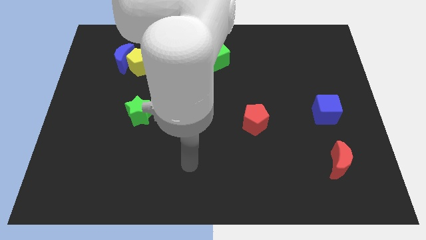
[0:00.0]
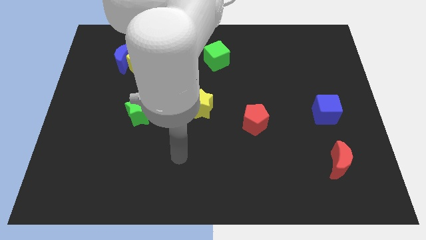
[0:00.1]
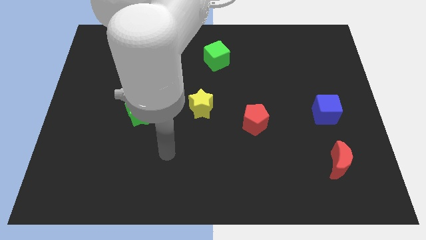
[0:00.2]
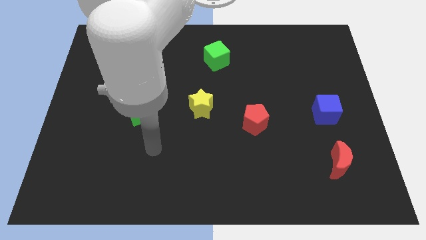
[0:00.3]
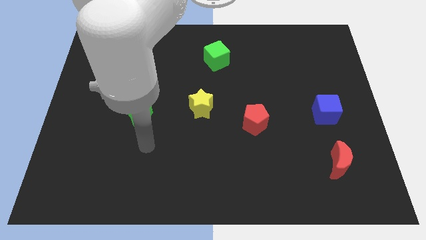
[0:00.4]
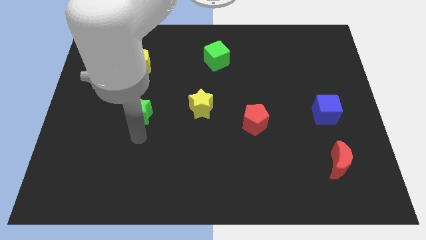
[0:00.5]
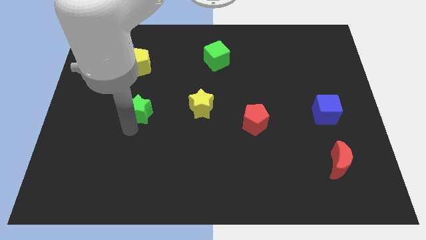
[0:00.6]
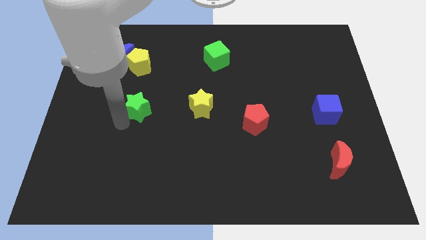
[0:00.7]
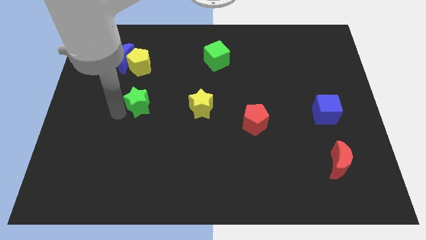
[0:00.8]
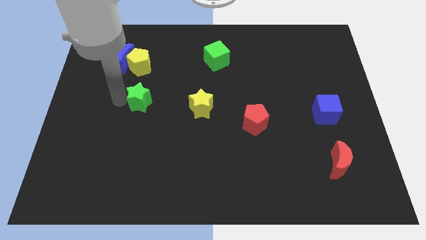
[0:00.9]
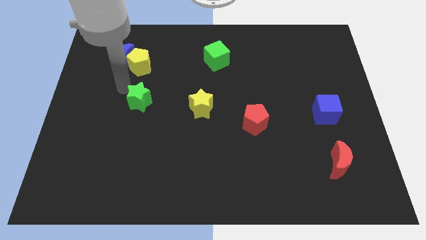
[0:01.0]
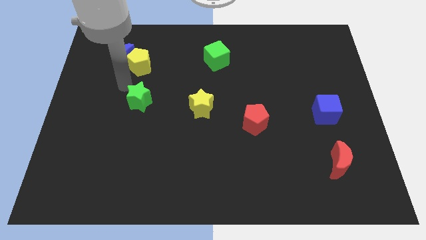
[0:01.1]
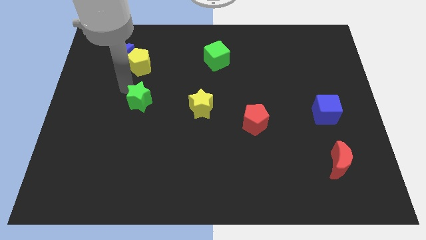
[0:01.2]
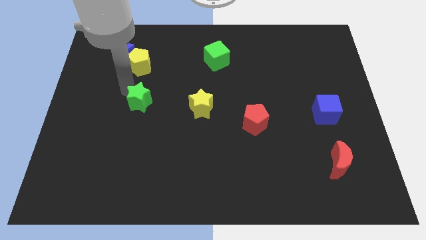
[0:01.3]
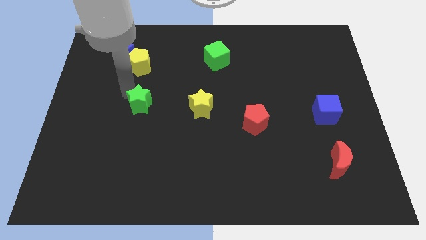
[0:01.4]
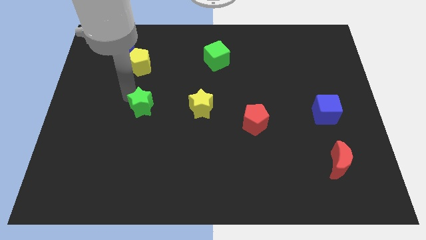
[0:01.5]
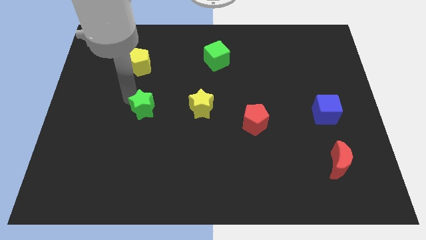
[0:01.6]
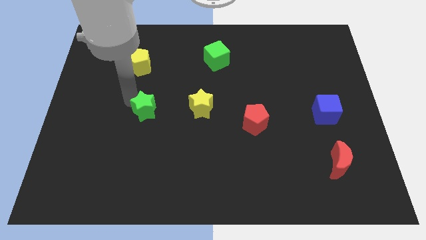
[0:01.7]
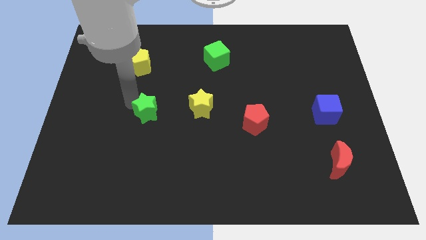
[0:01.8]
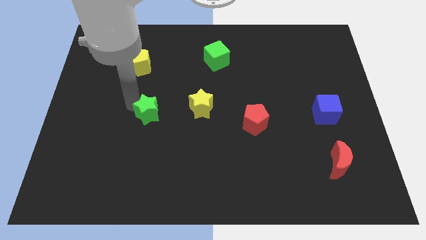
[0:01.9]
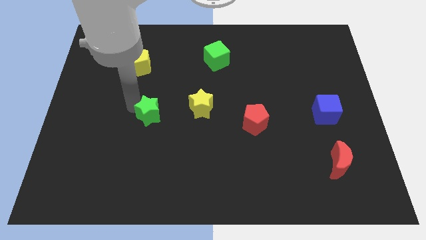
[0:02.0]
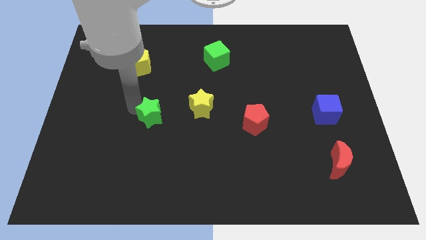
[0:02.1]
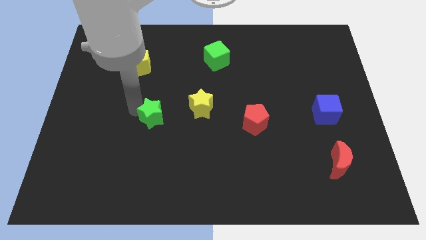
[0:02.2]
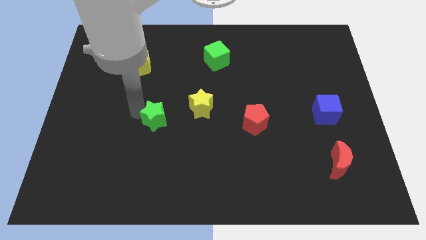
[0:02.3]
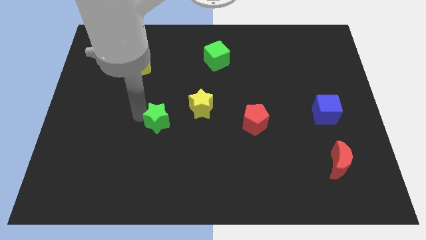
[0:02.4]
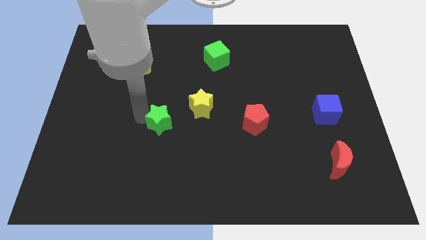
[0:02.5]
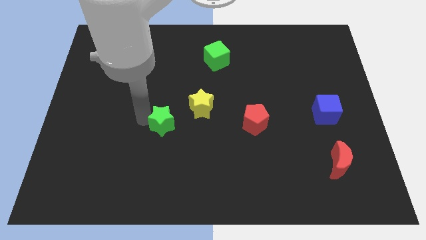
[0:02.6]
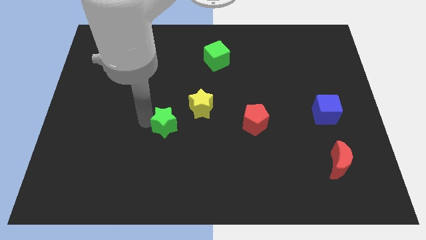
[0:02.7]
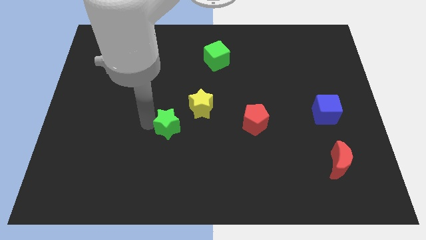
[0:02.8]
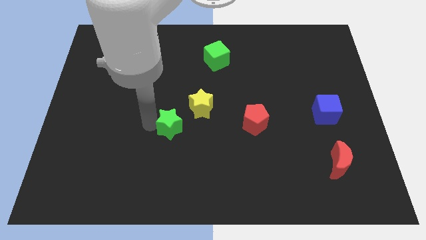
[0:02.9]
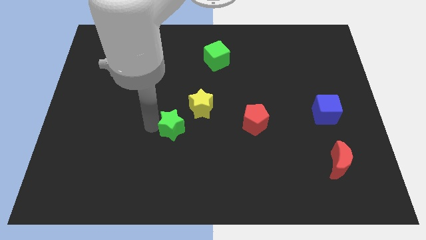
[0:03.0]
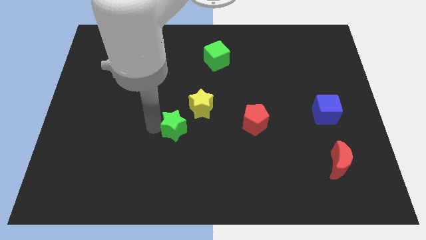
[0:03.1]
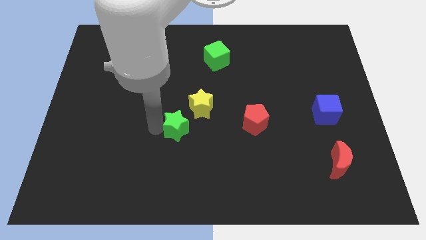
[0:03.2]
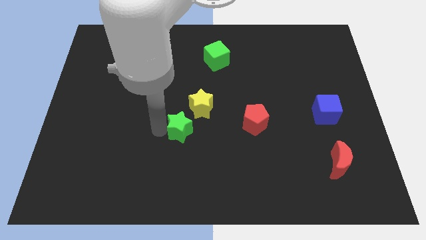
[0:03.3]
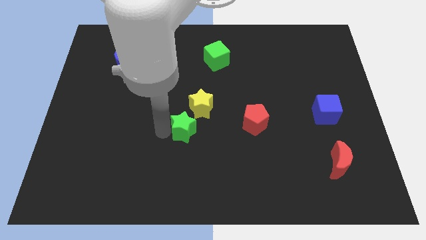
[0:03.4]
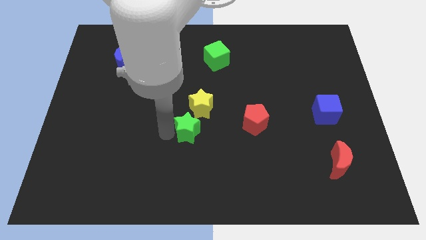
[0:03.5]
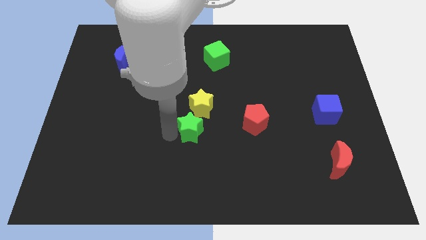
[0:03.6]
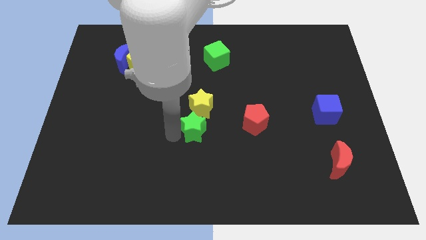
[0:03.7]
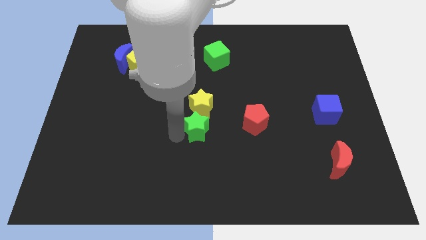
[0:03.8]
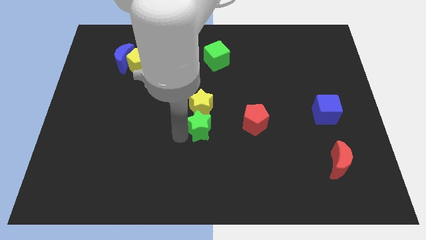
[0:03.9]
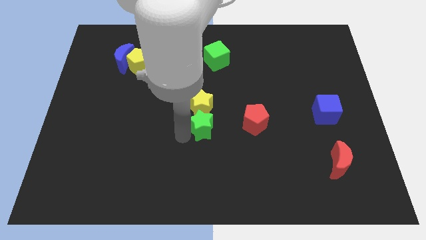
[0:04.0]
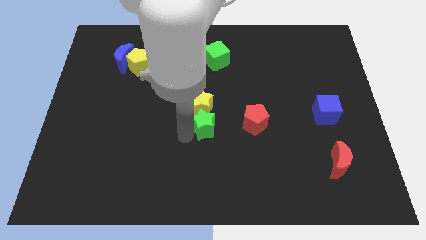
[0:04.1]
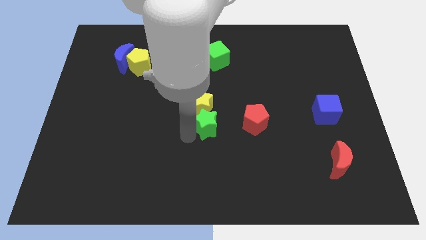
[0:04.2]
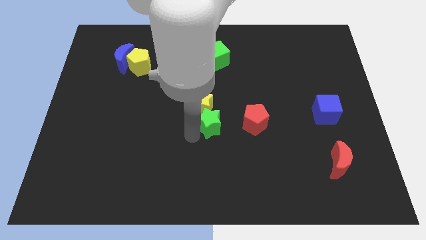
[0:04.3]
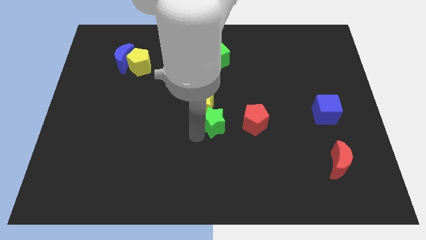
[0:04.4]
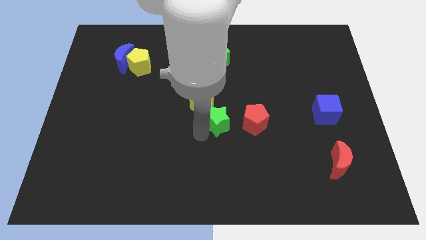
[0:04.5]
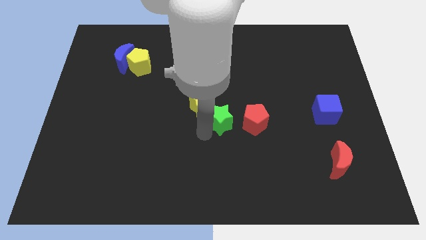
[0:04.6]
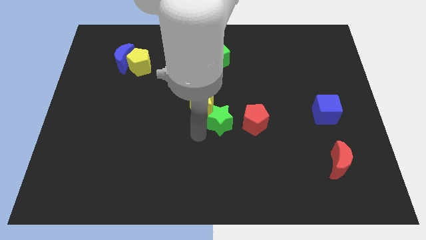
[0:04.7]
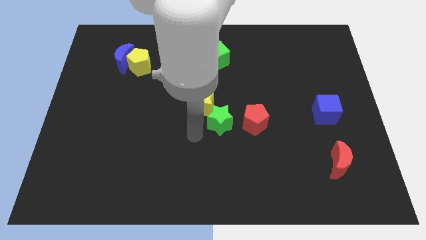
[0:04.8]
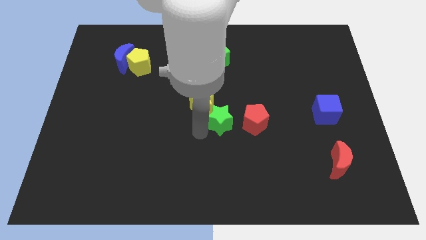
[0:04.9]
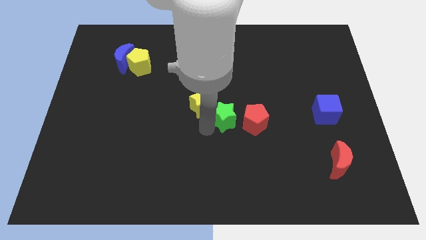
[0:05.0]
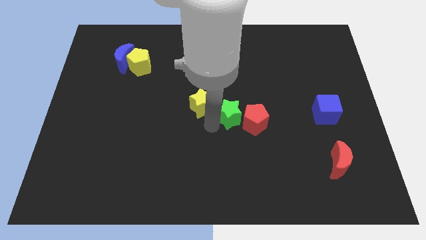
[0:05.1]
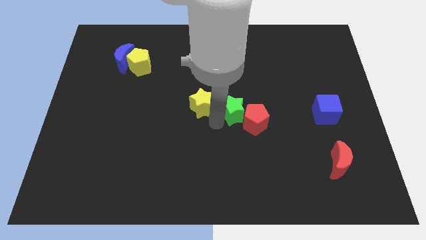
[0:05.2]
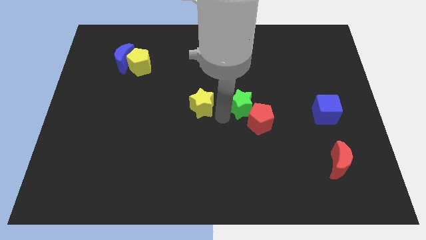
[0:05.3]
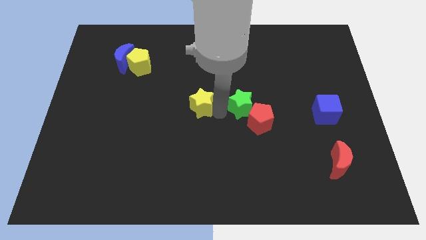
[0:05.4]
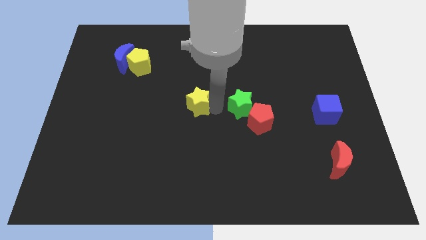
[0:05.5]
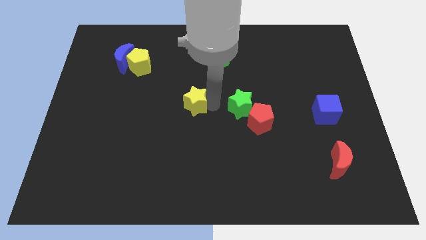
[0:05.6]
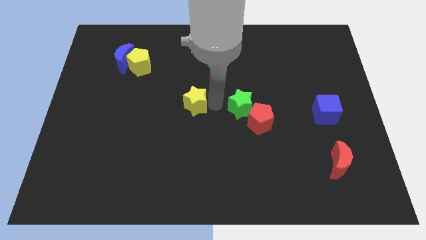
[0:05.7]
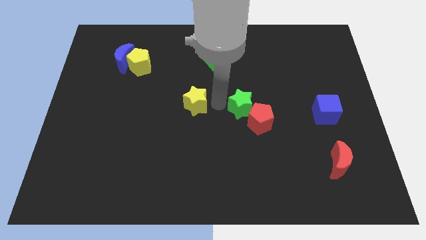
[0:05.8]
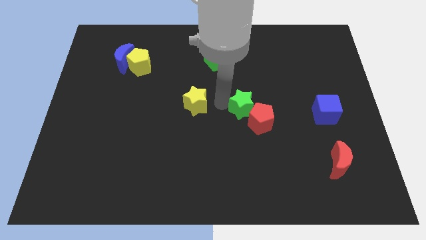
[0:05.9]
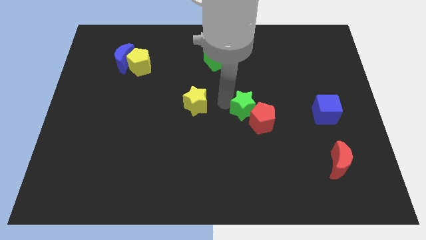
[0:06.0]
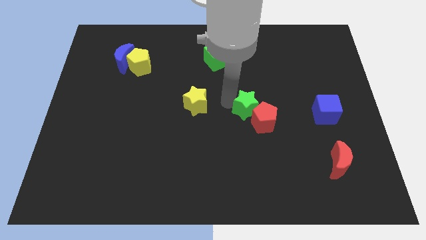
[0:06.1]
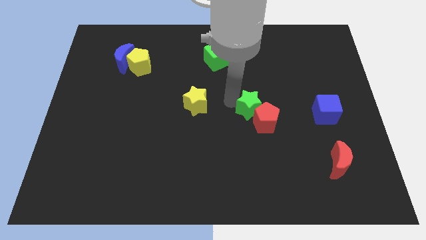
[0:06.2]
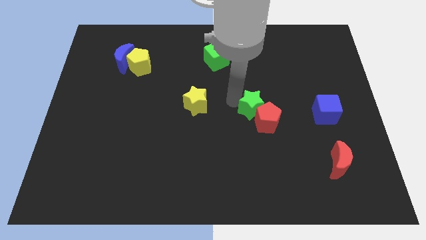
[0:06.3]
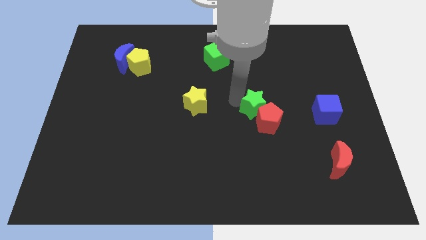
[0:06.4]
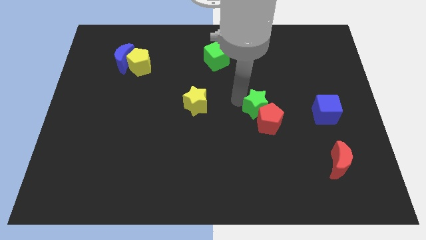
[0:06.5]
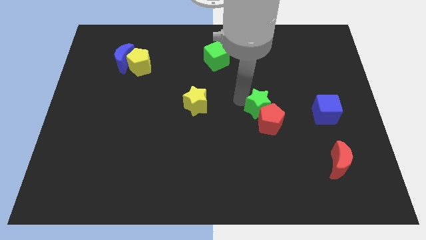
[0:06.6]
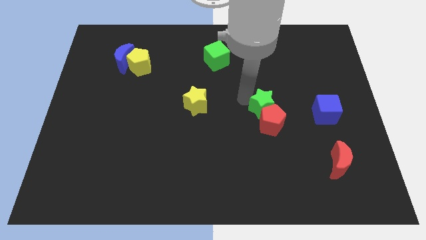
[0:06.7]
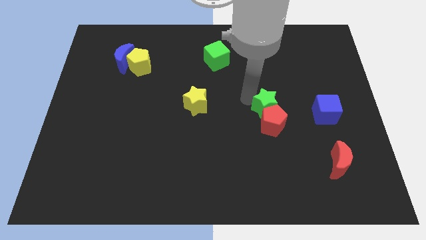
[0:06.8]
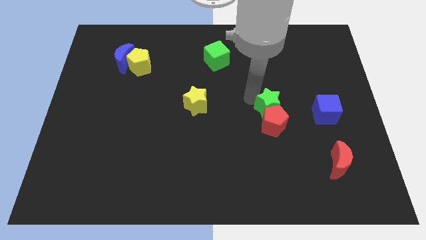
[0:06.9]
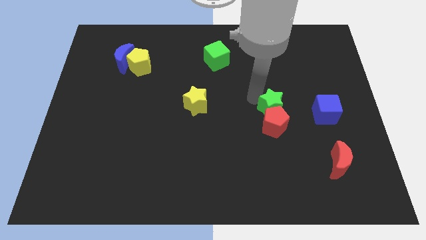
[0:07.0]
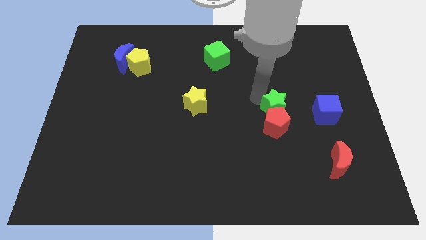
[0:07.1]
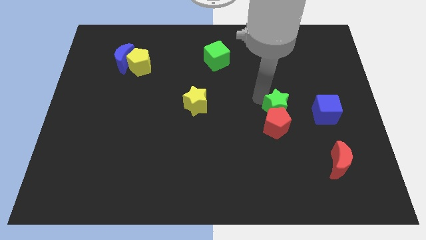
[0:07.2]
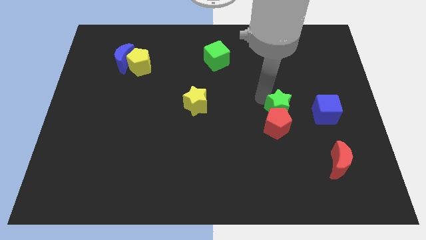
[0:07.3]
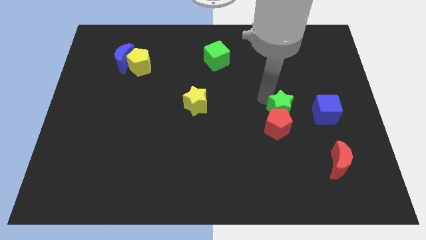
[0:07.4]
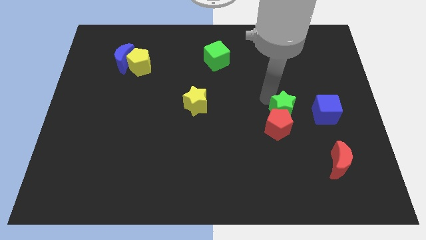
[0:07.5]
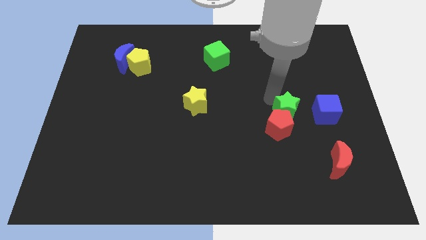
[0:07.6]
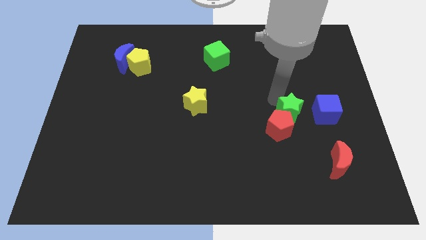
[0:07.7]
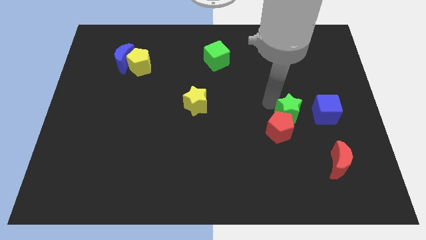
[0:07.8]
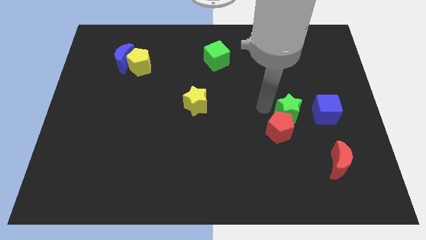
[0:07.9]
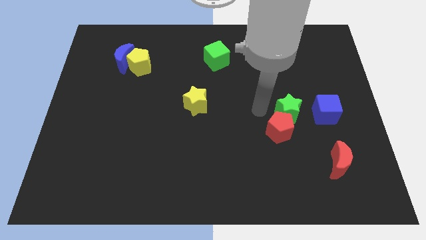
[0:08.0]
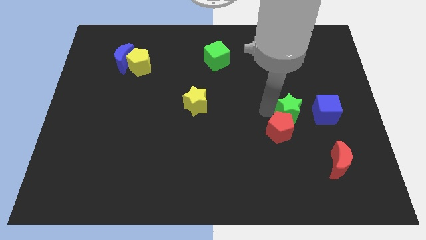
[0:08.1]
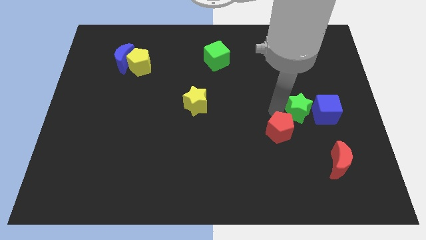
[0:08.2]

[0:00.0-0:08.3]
move the green star towards the blue cube
